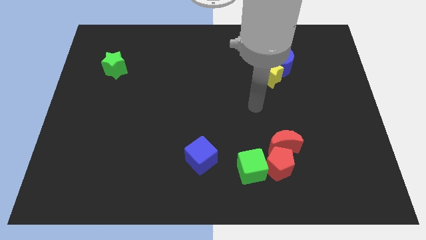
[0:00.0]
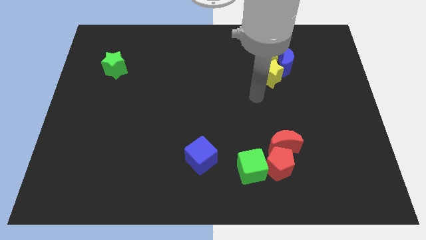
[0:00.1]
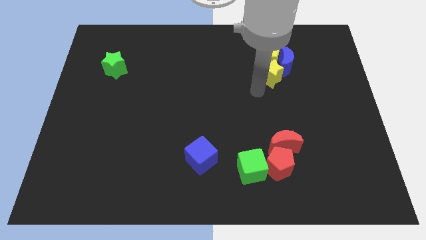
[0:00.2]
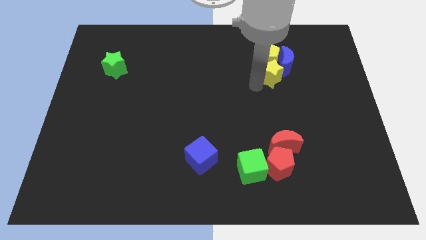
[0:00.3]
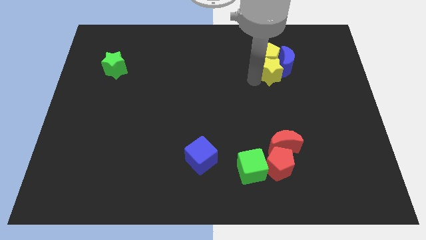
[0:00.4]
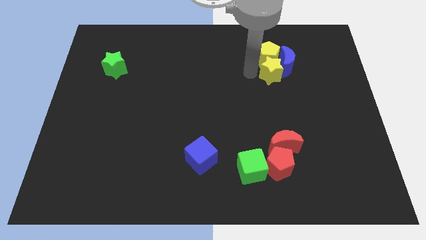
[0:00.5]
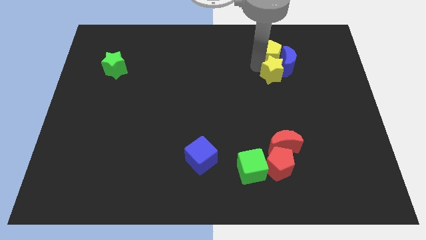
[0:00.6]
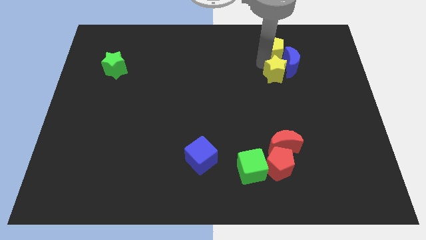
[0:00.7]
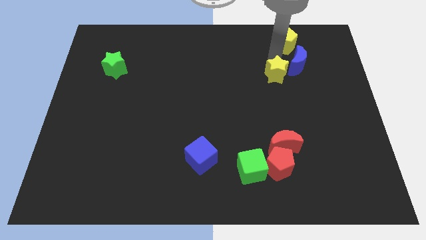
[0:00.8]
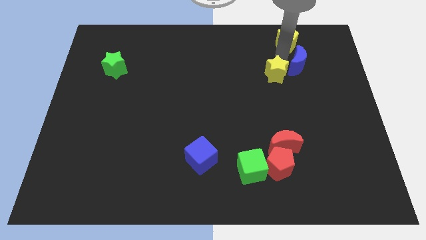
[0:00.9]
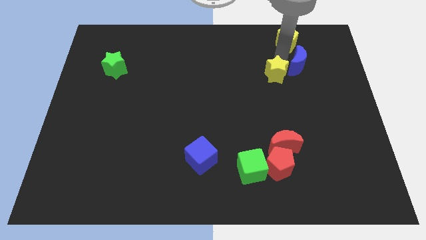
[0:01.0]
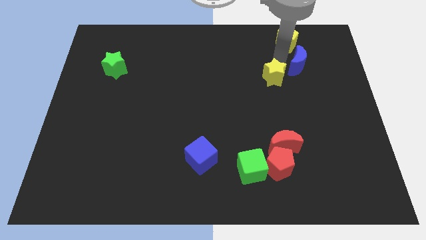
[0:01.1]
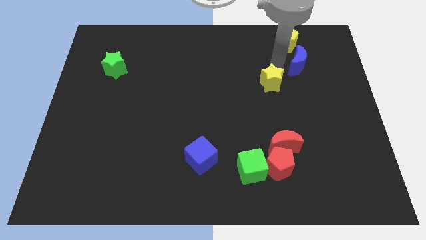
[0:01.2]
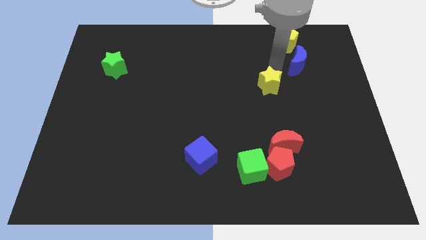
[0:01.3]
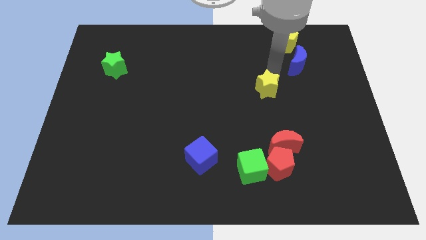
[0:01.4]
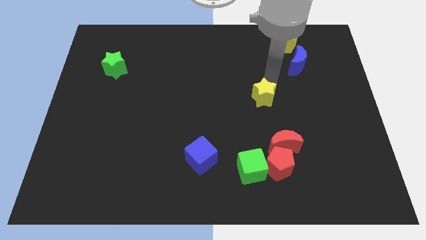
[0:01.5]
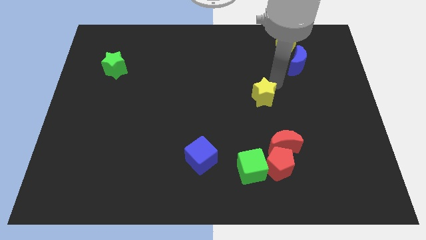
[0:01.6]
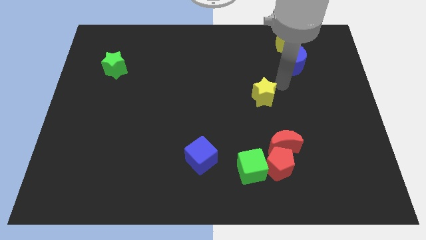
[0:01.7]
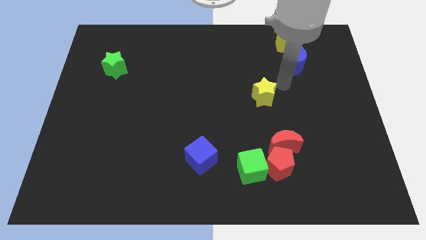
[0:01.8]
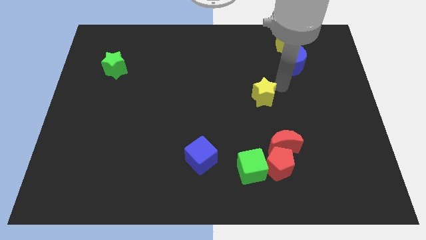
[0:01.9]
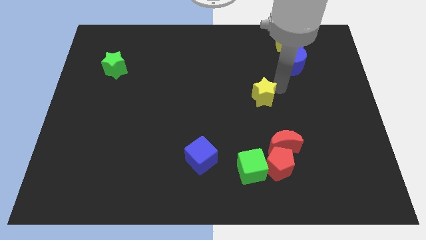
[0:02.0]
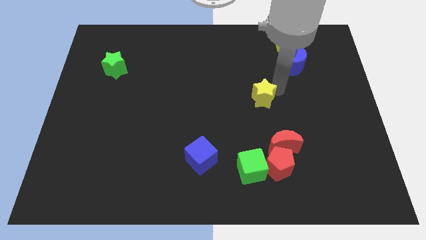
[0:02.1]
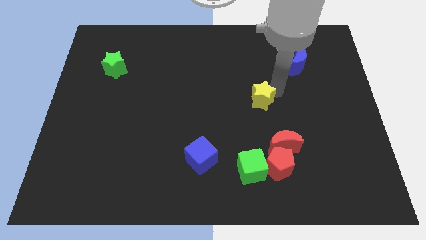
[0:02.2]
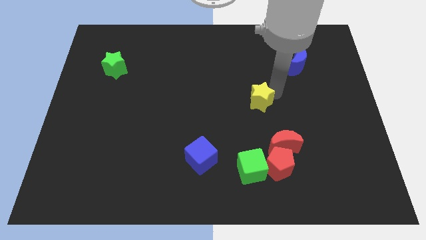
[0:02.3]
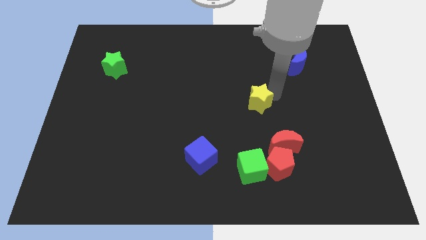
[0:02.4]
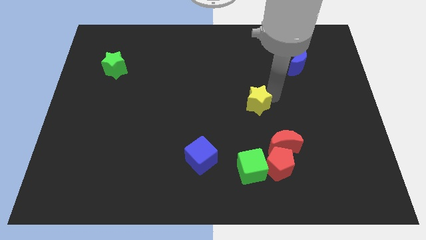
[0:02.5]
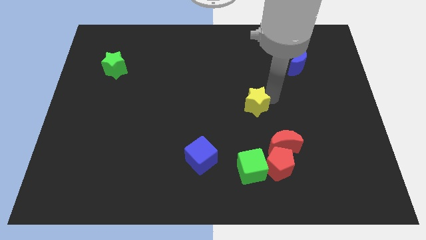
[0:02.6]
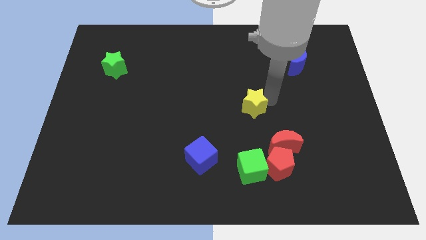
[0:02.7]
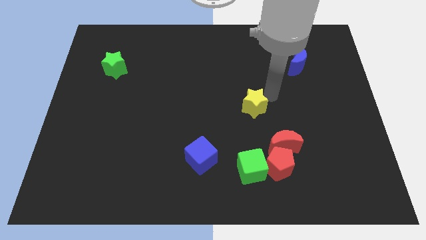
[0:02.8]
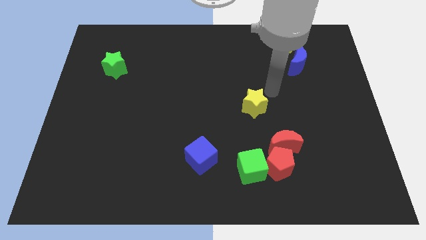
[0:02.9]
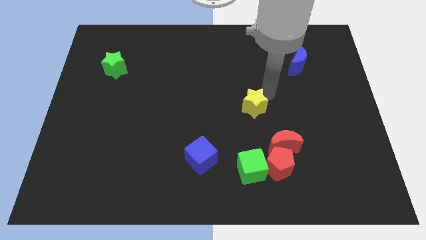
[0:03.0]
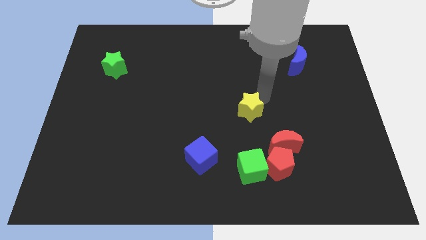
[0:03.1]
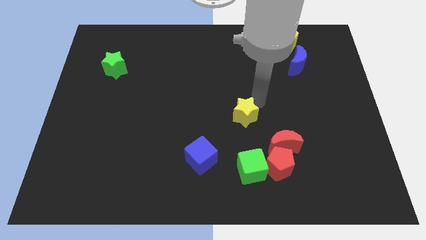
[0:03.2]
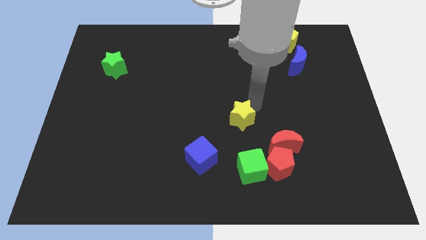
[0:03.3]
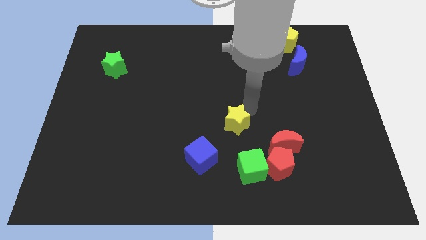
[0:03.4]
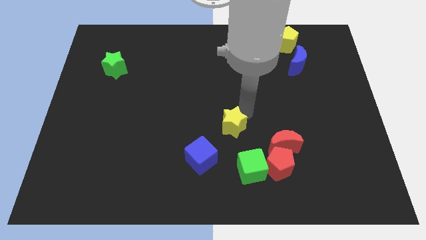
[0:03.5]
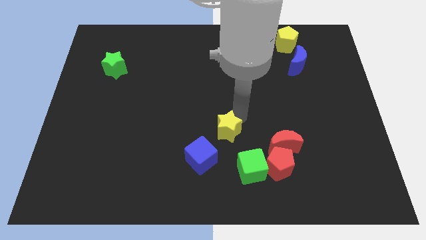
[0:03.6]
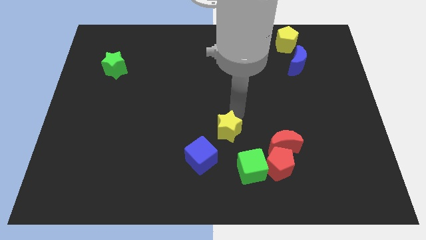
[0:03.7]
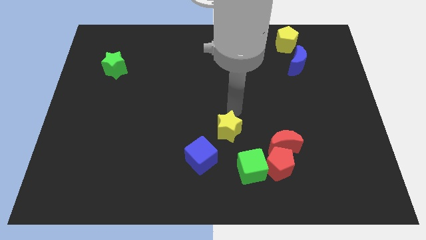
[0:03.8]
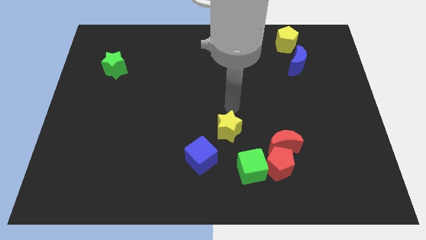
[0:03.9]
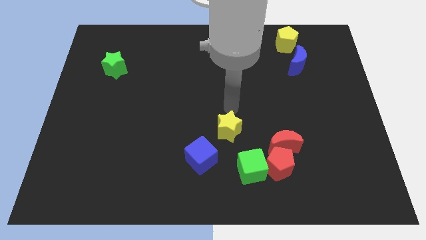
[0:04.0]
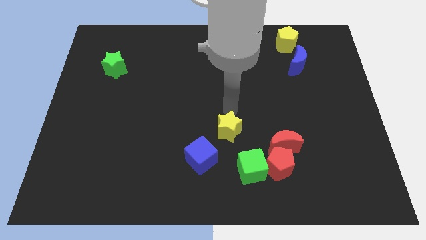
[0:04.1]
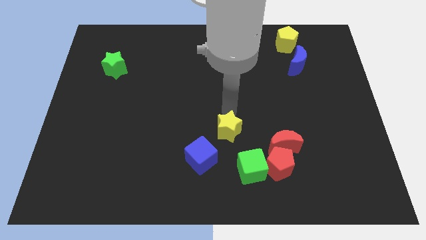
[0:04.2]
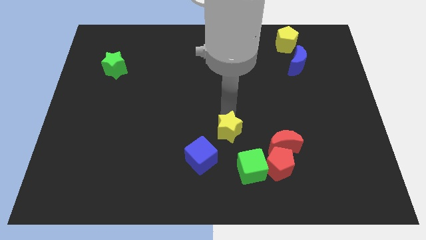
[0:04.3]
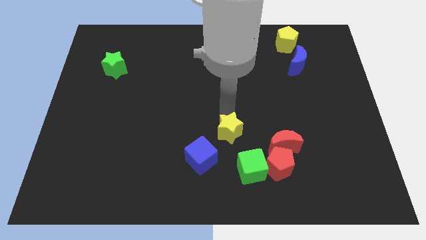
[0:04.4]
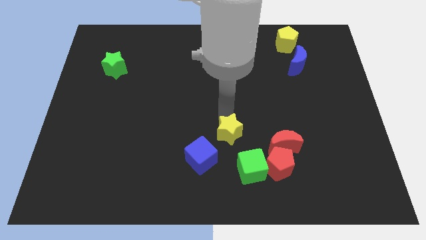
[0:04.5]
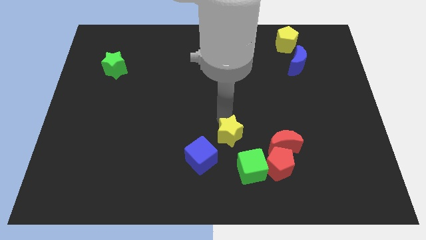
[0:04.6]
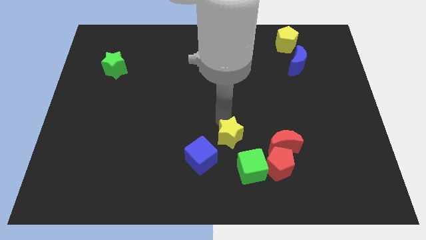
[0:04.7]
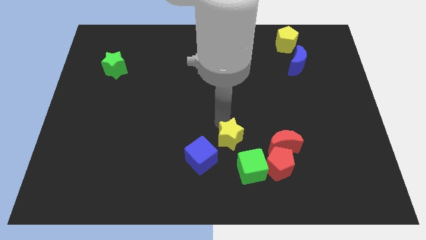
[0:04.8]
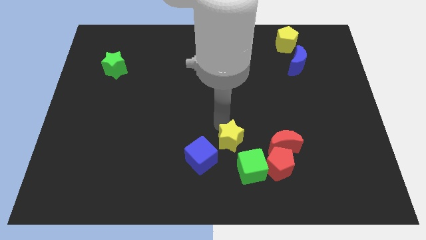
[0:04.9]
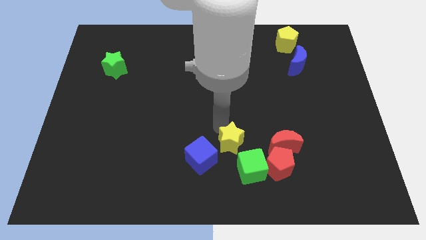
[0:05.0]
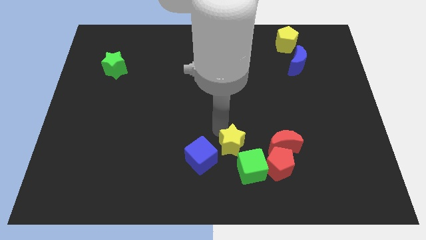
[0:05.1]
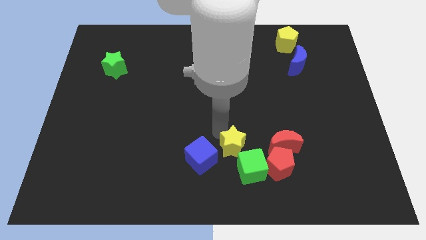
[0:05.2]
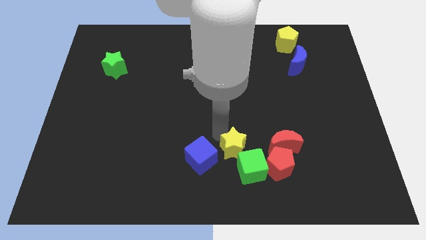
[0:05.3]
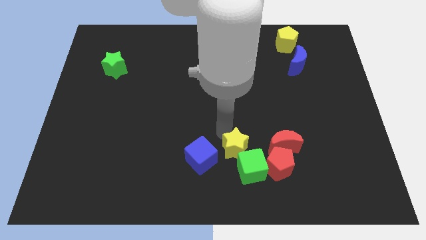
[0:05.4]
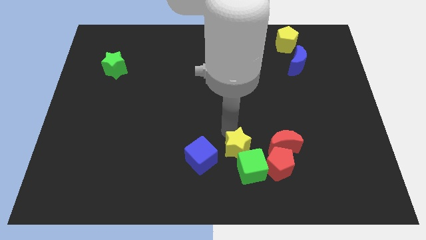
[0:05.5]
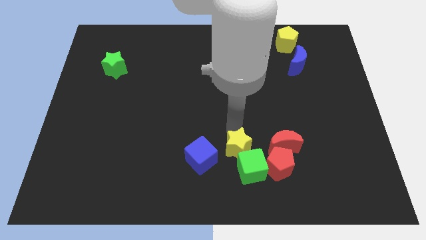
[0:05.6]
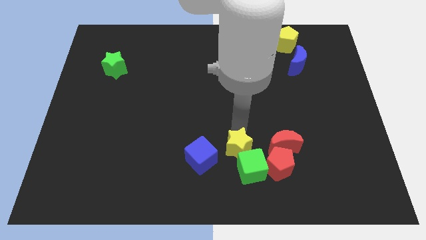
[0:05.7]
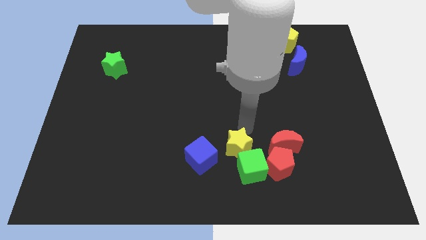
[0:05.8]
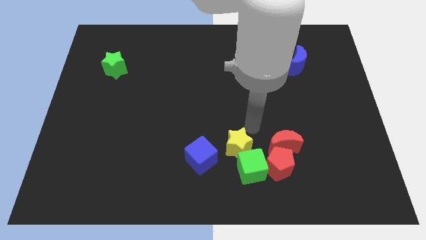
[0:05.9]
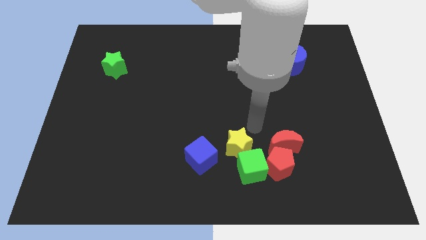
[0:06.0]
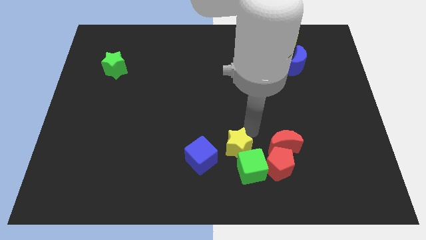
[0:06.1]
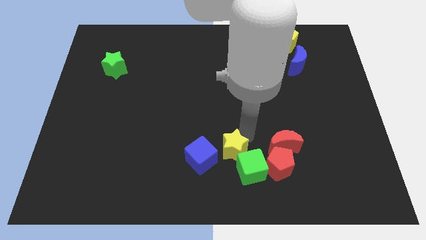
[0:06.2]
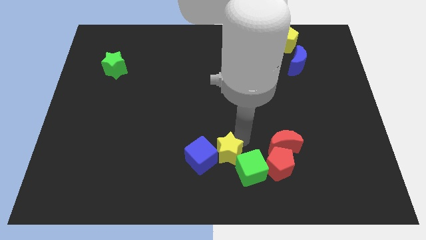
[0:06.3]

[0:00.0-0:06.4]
move the yellow star to the left side of the green cube

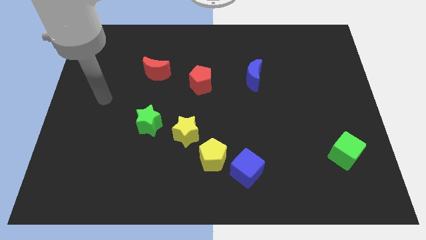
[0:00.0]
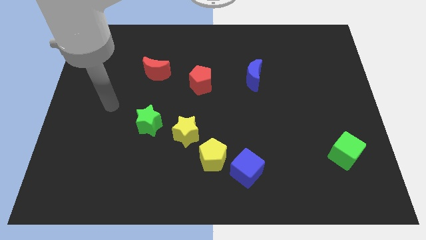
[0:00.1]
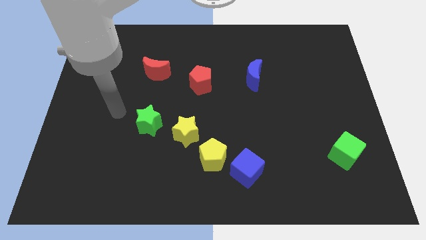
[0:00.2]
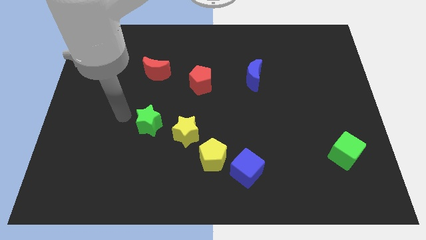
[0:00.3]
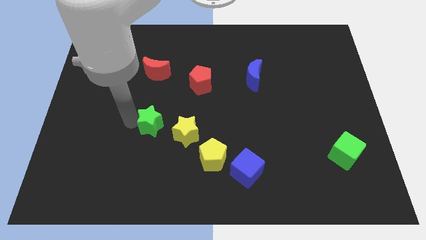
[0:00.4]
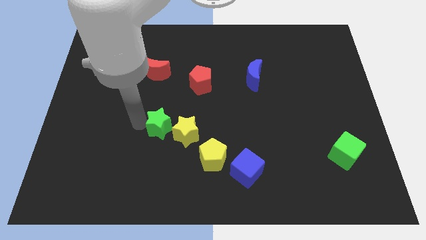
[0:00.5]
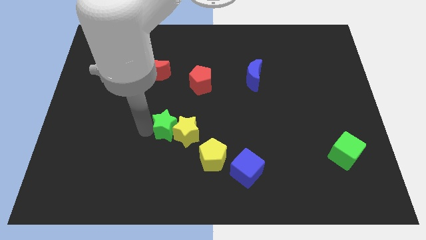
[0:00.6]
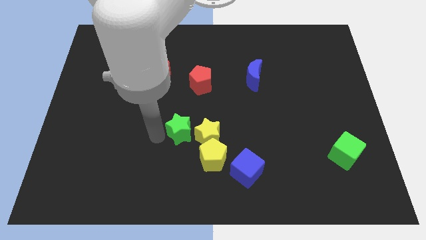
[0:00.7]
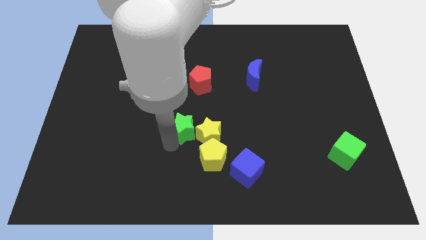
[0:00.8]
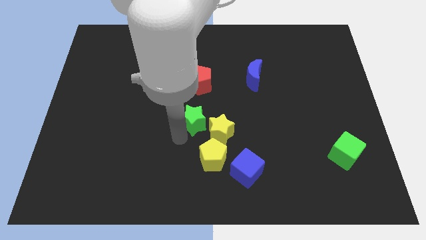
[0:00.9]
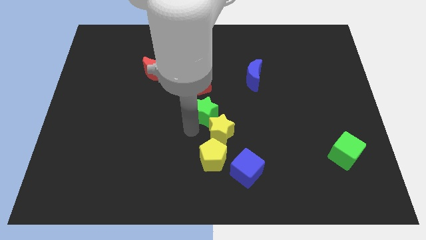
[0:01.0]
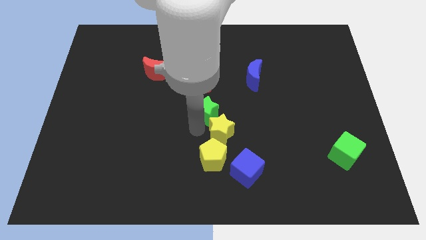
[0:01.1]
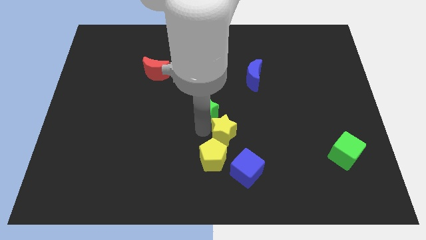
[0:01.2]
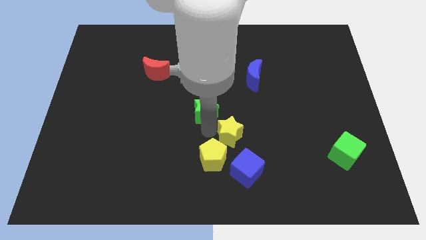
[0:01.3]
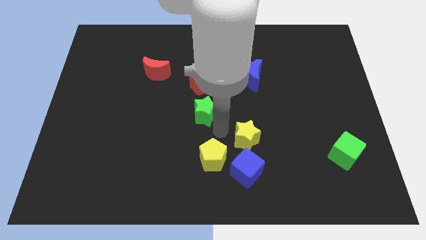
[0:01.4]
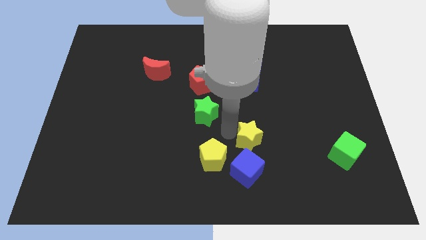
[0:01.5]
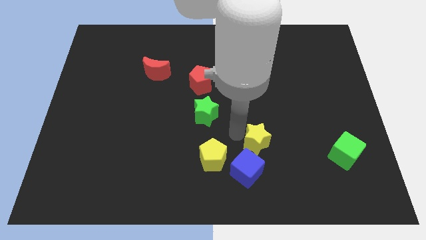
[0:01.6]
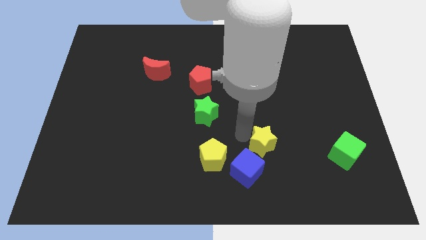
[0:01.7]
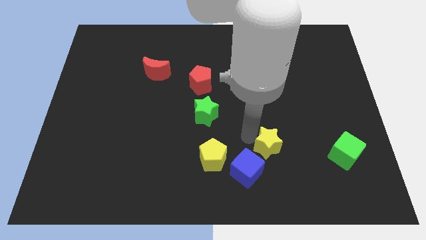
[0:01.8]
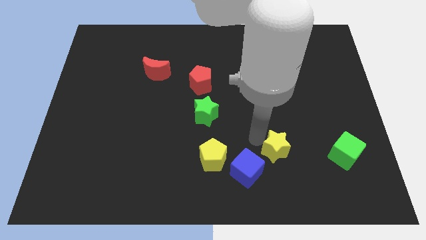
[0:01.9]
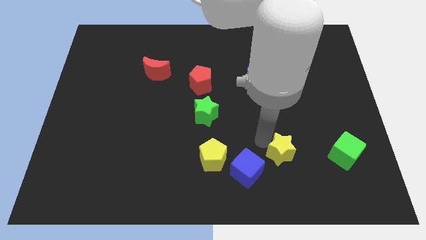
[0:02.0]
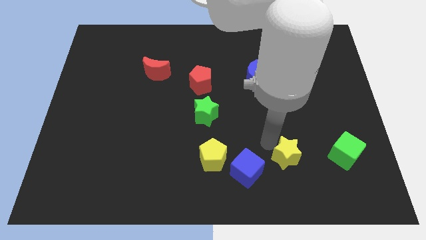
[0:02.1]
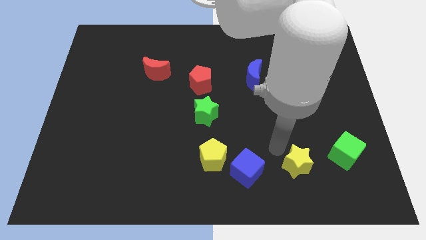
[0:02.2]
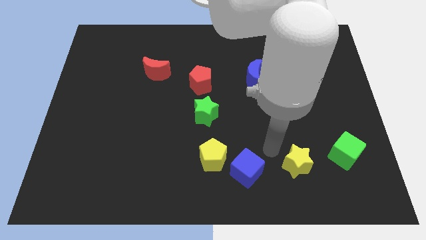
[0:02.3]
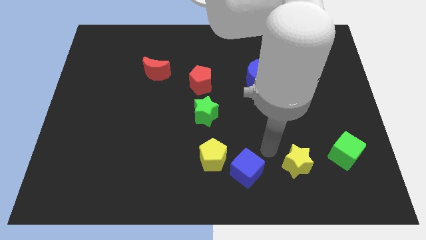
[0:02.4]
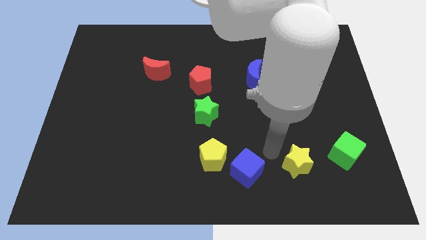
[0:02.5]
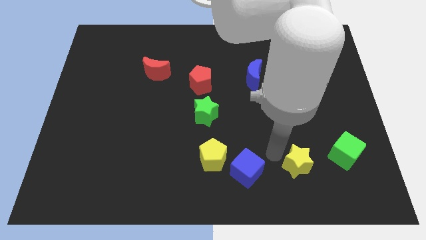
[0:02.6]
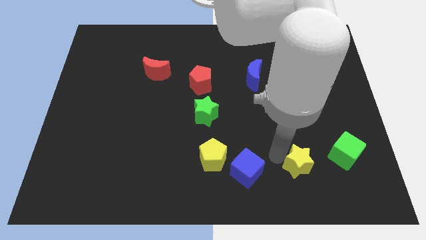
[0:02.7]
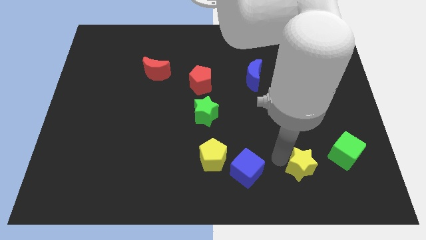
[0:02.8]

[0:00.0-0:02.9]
put the yellow star to the bottom left side of the green cube
